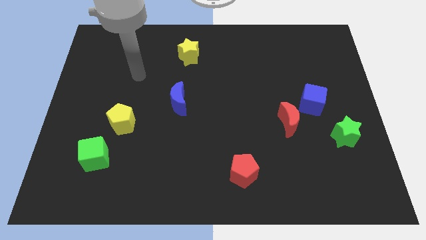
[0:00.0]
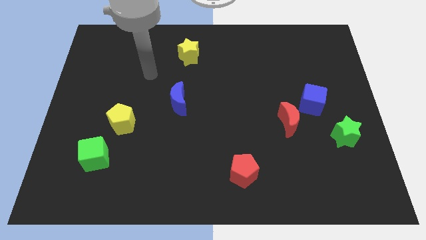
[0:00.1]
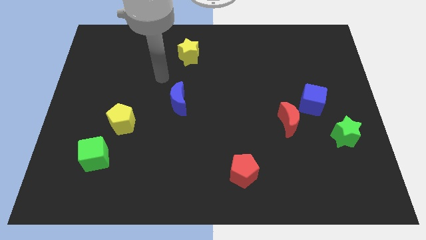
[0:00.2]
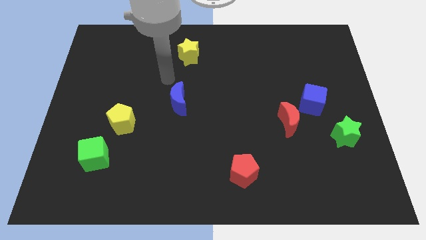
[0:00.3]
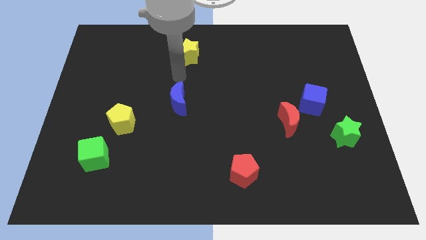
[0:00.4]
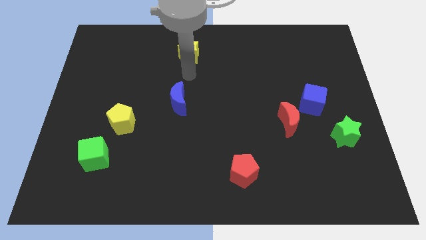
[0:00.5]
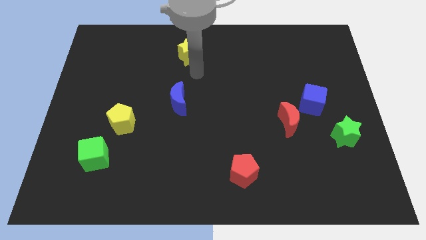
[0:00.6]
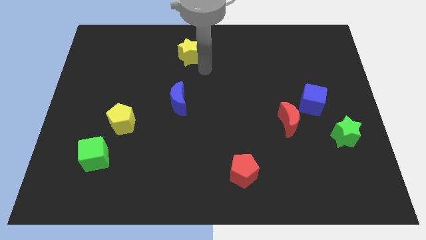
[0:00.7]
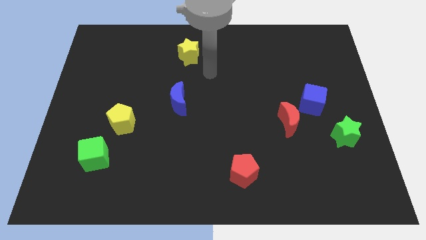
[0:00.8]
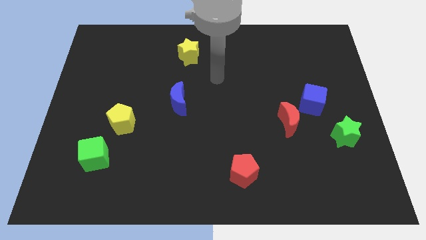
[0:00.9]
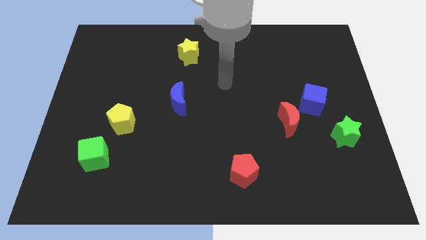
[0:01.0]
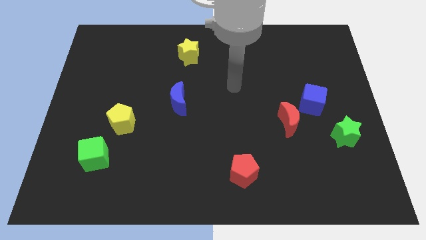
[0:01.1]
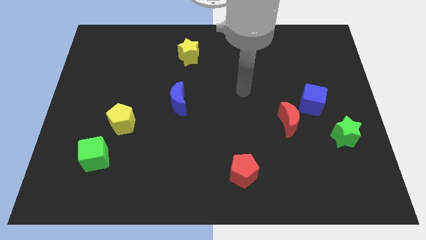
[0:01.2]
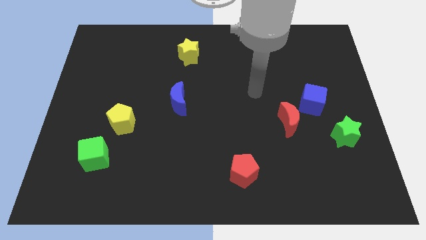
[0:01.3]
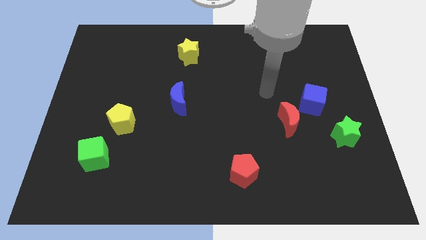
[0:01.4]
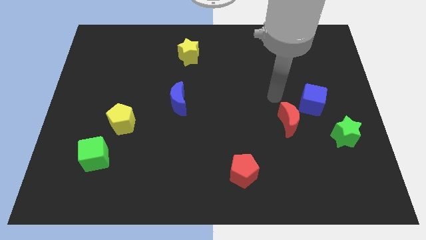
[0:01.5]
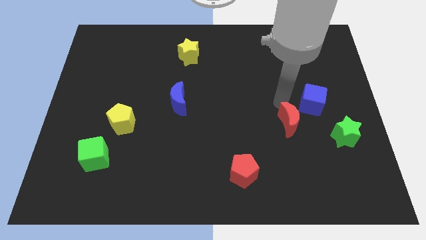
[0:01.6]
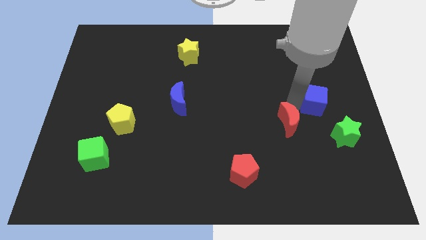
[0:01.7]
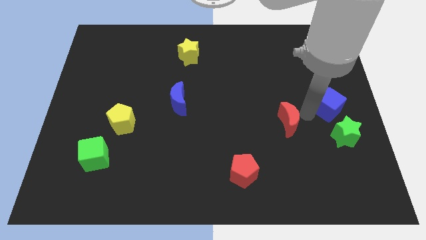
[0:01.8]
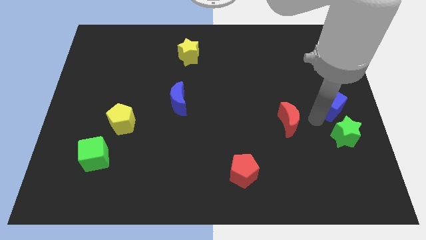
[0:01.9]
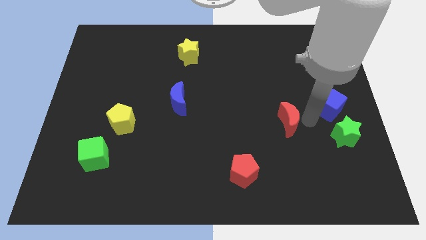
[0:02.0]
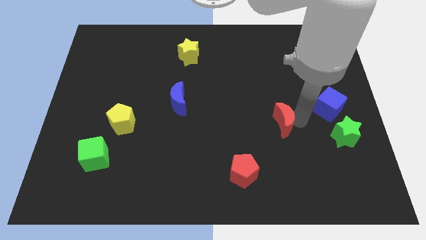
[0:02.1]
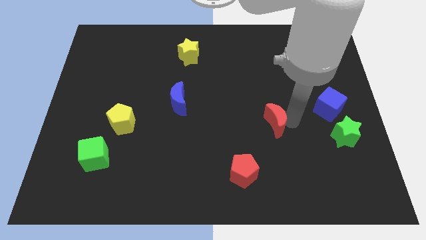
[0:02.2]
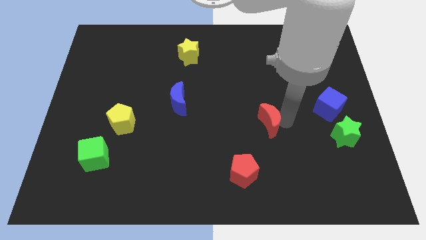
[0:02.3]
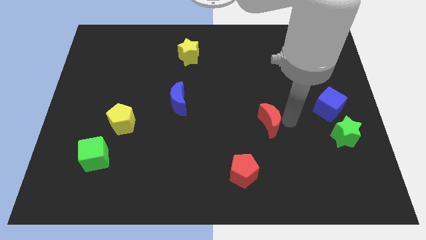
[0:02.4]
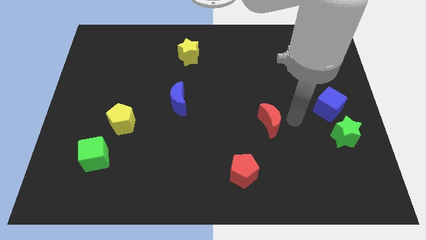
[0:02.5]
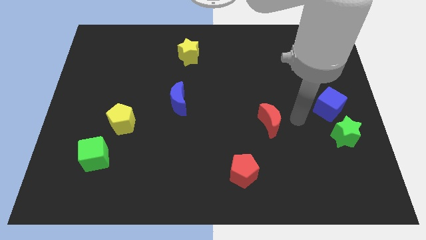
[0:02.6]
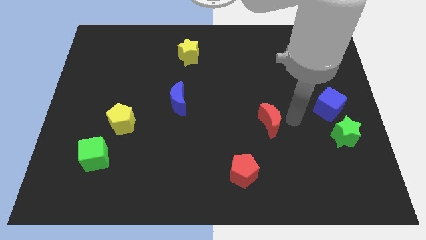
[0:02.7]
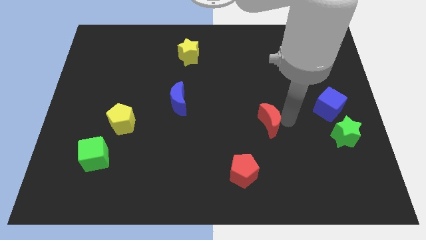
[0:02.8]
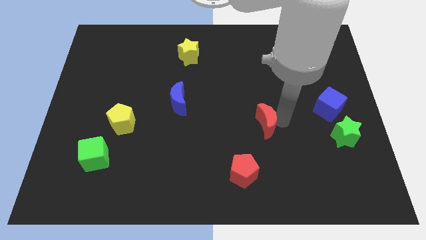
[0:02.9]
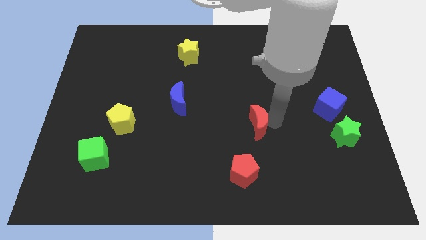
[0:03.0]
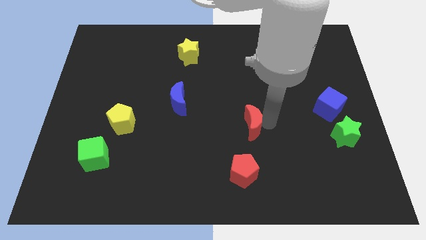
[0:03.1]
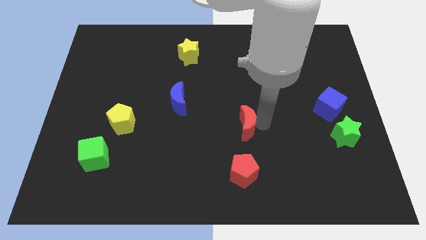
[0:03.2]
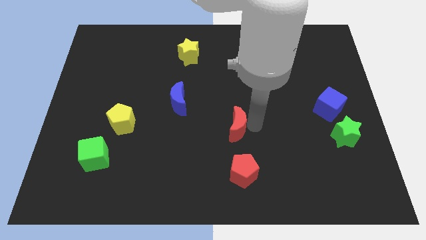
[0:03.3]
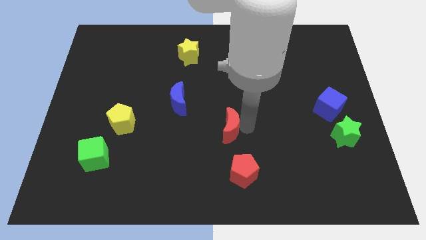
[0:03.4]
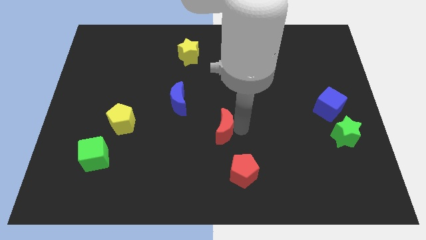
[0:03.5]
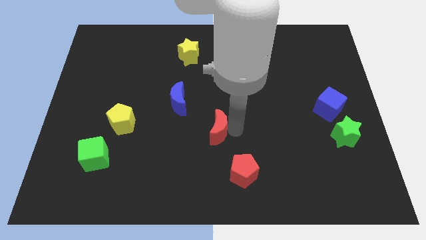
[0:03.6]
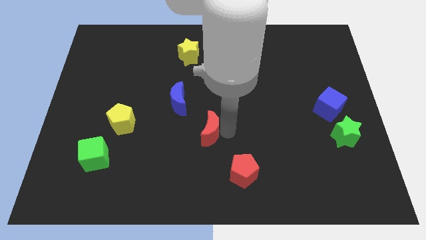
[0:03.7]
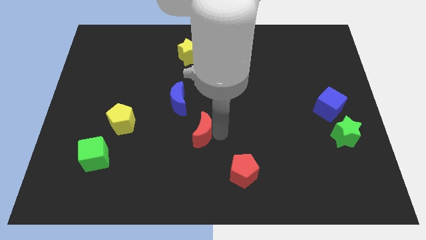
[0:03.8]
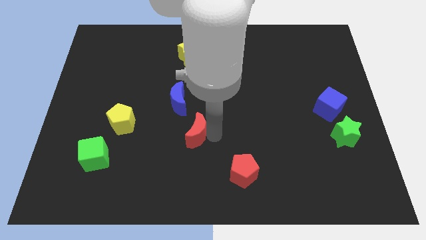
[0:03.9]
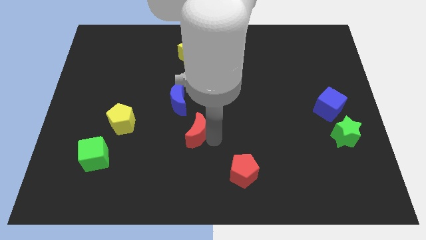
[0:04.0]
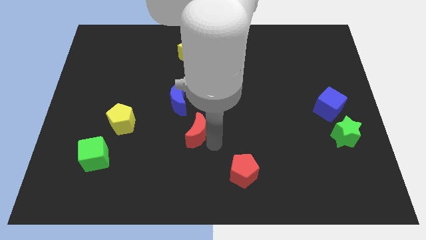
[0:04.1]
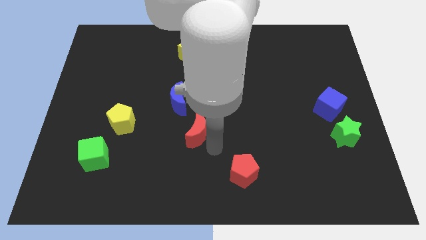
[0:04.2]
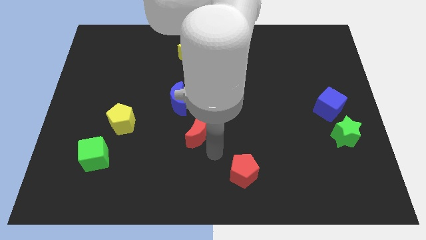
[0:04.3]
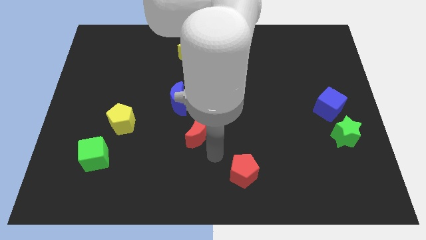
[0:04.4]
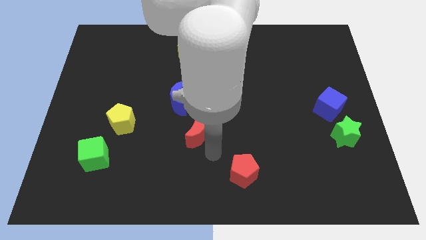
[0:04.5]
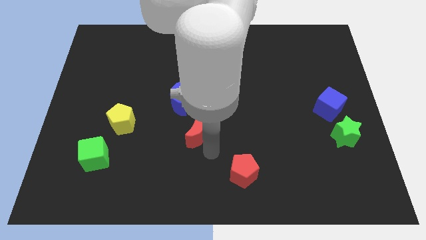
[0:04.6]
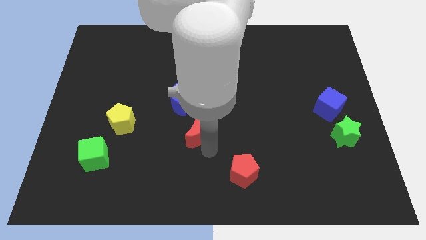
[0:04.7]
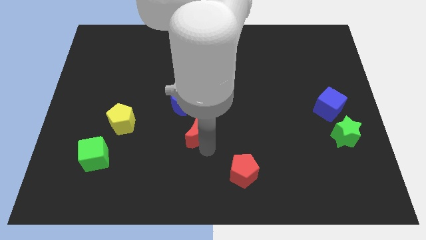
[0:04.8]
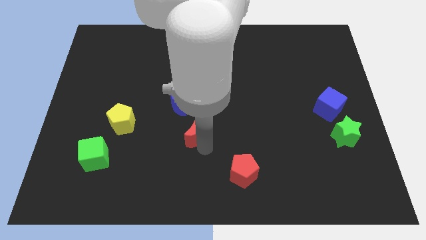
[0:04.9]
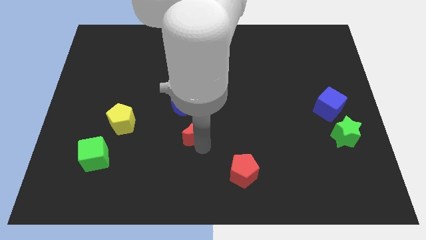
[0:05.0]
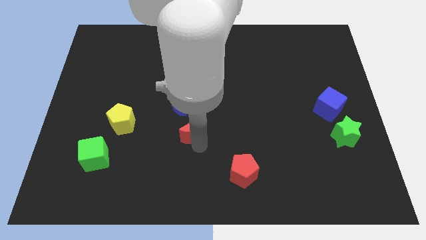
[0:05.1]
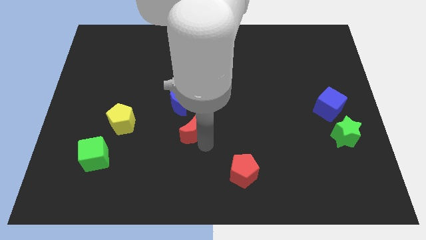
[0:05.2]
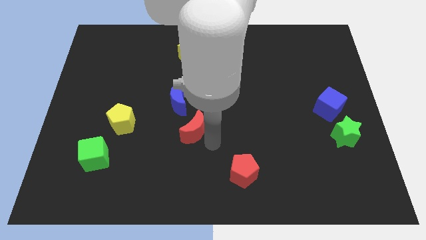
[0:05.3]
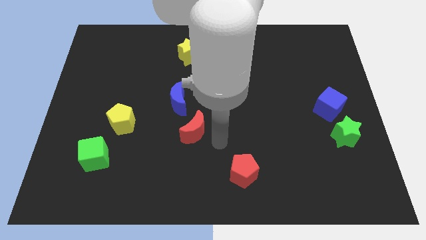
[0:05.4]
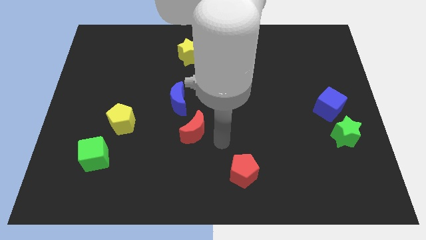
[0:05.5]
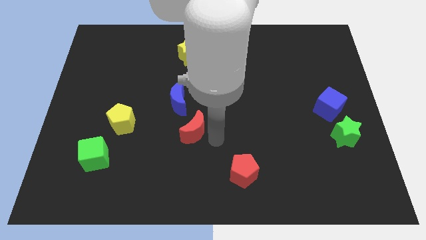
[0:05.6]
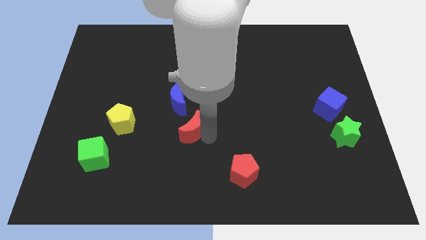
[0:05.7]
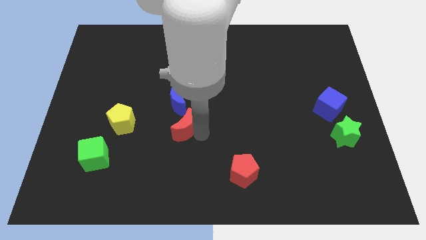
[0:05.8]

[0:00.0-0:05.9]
push the red moon right of the yellow pentagon

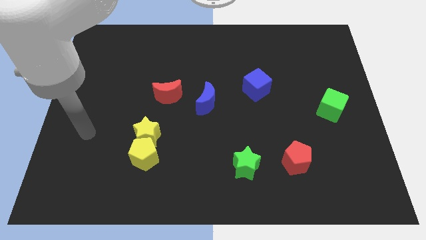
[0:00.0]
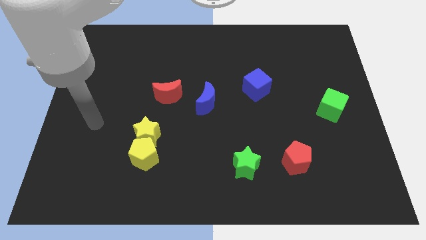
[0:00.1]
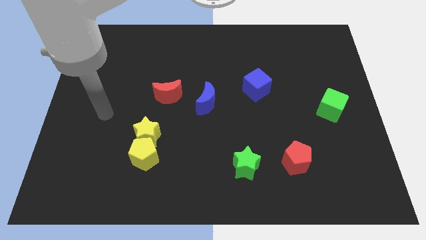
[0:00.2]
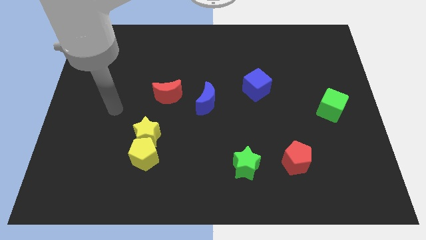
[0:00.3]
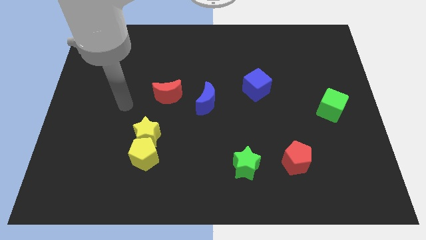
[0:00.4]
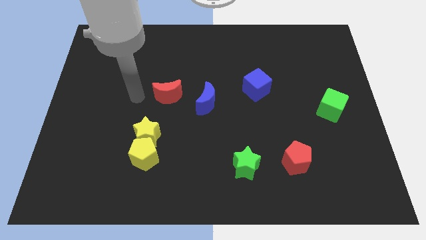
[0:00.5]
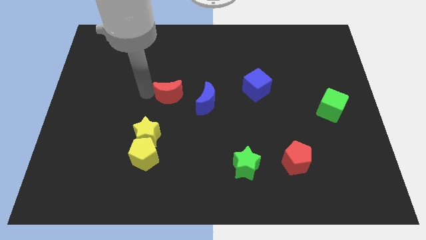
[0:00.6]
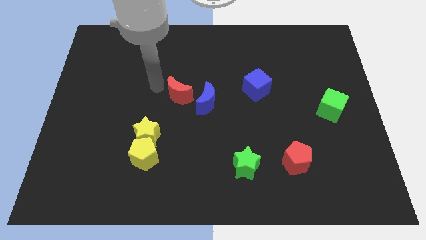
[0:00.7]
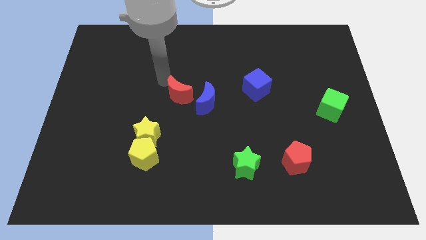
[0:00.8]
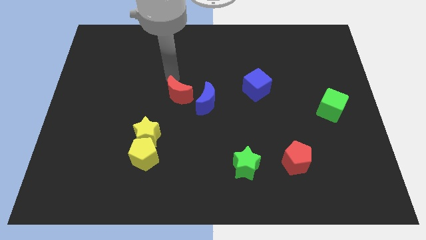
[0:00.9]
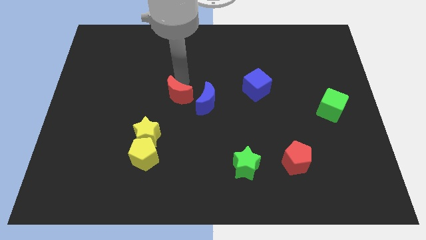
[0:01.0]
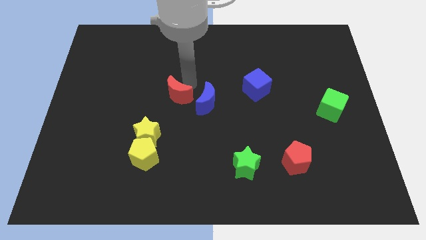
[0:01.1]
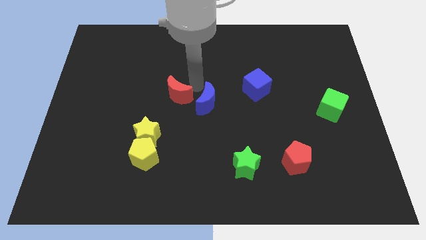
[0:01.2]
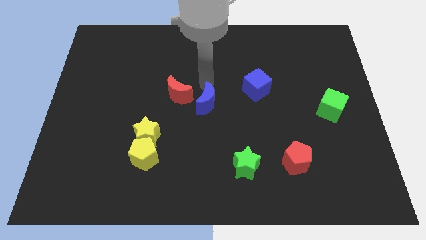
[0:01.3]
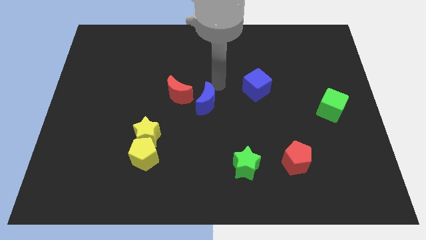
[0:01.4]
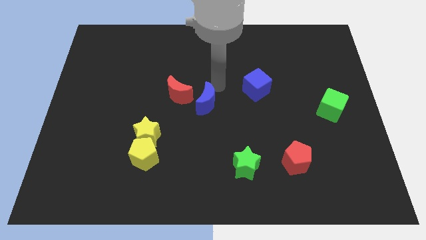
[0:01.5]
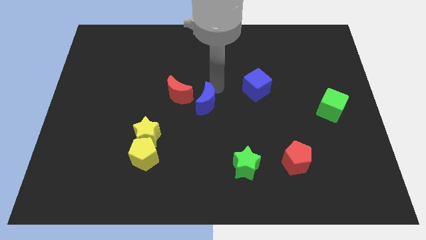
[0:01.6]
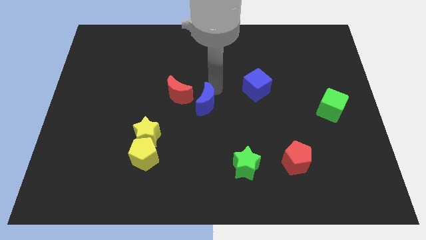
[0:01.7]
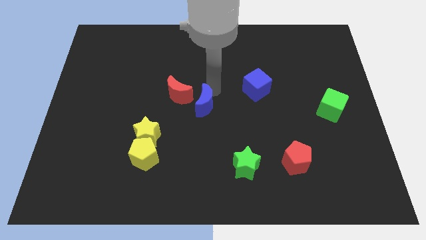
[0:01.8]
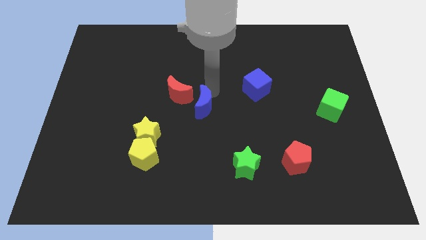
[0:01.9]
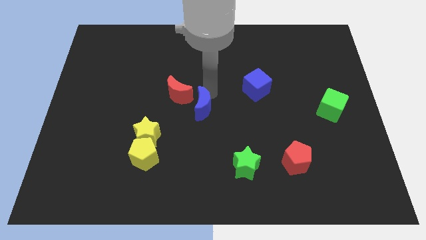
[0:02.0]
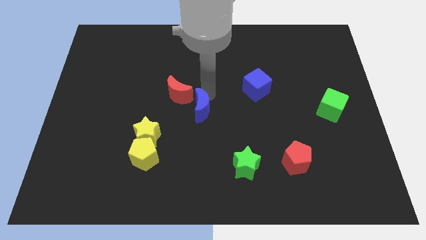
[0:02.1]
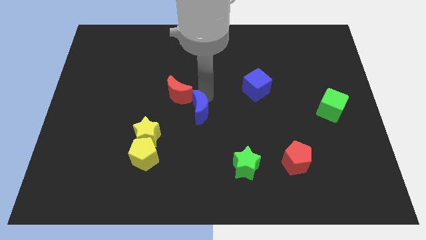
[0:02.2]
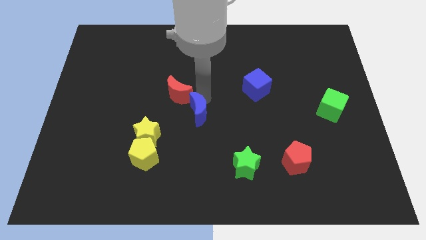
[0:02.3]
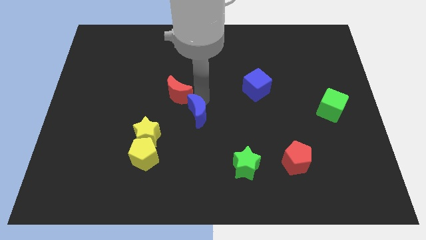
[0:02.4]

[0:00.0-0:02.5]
move the blue moon to the bottom of the red moon
